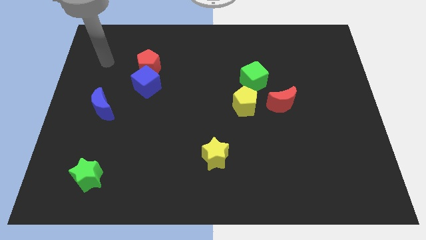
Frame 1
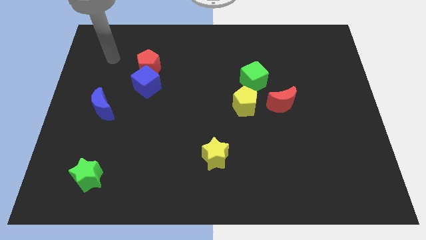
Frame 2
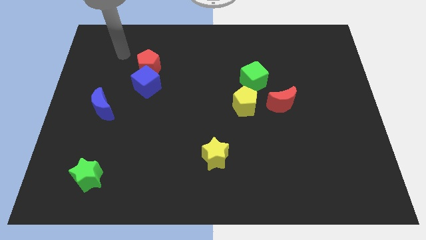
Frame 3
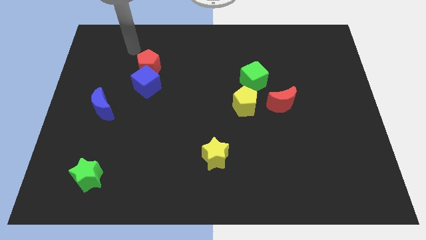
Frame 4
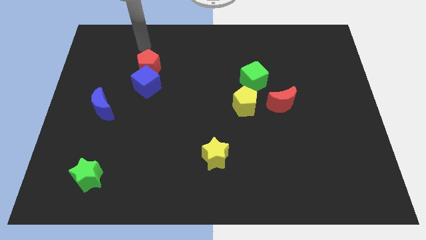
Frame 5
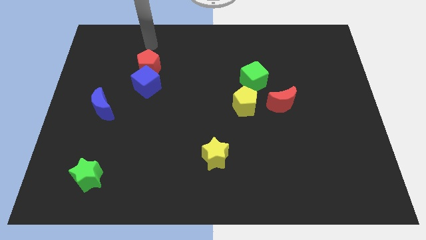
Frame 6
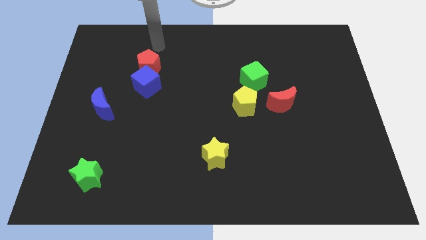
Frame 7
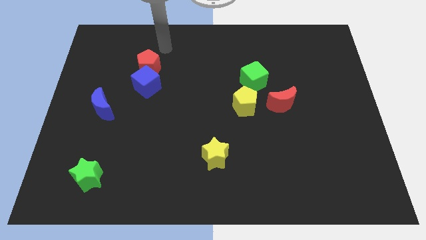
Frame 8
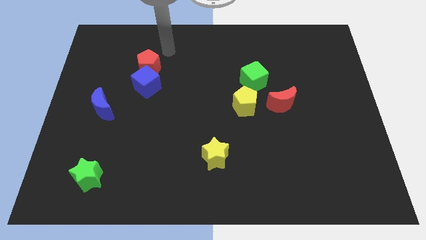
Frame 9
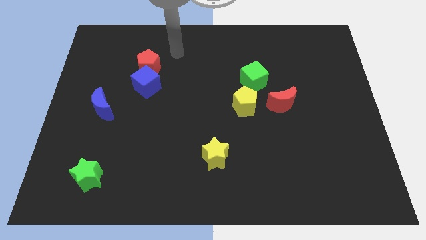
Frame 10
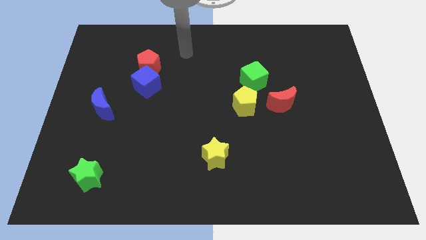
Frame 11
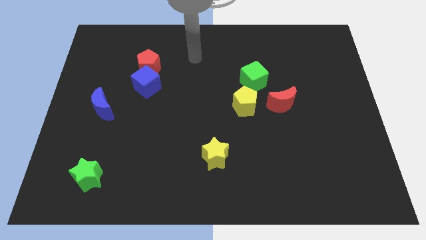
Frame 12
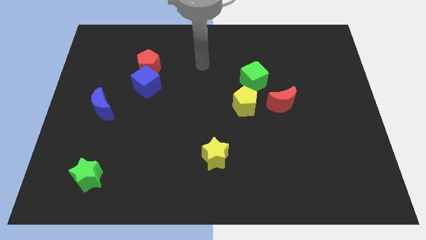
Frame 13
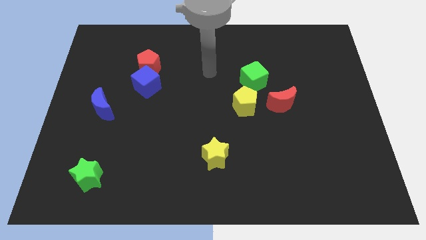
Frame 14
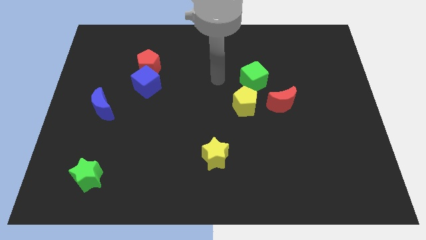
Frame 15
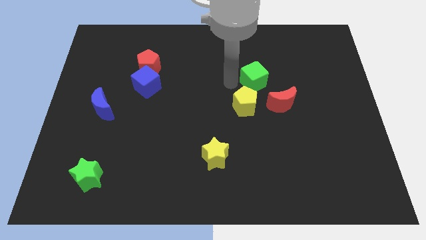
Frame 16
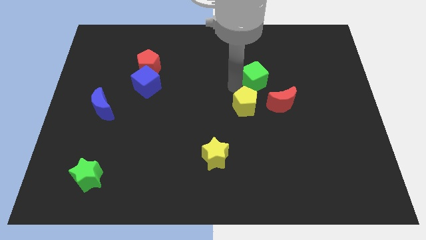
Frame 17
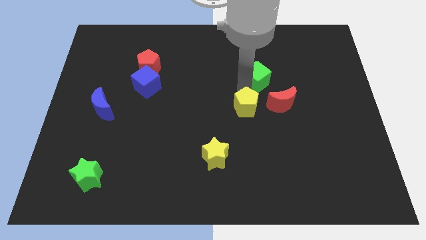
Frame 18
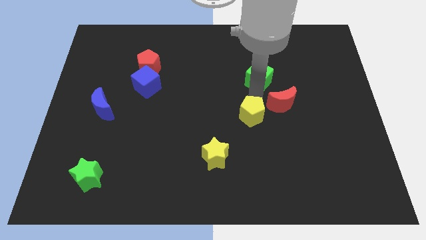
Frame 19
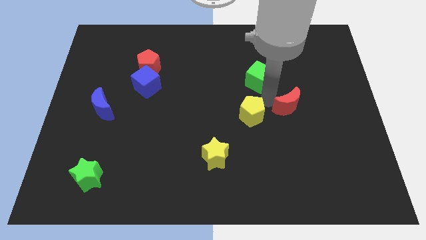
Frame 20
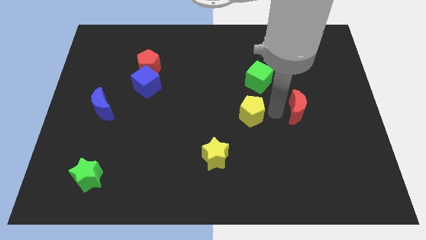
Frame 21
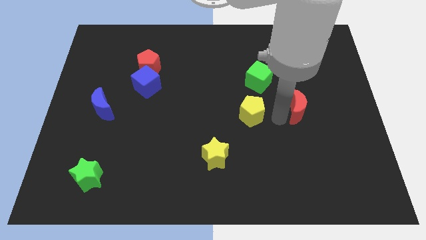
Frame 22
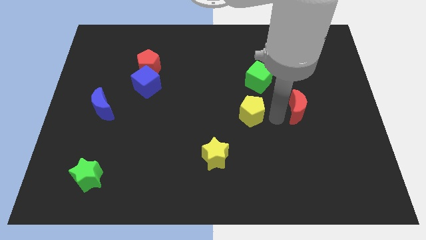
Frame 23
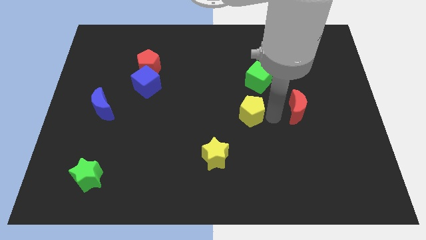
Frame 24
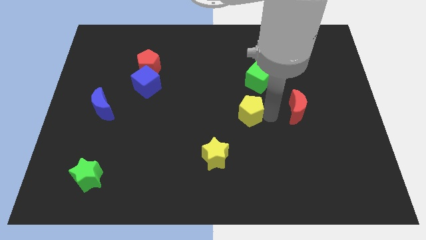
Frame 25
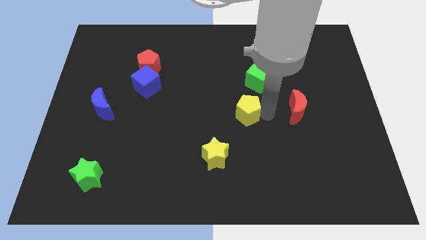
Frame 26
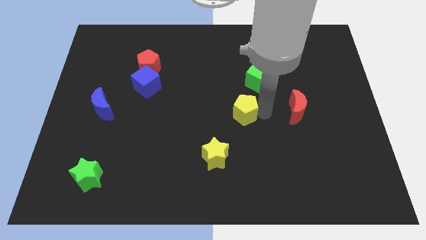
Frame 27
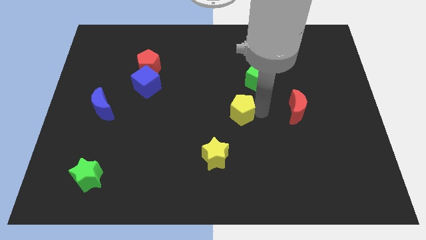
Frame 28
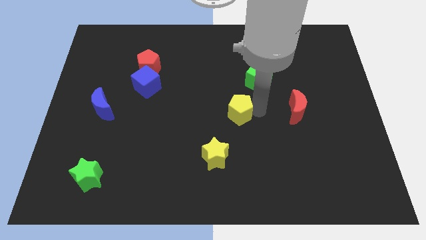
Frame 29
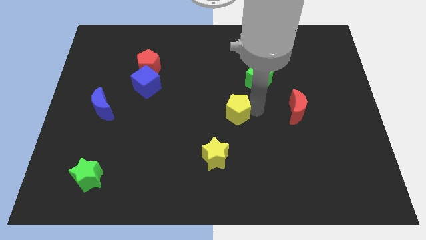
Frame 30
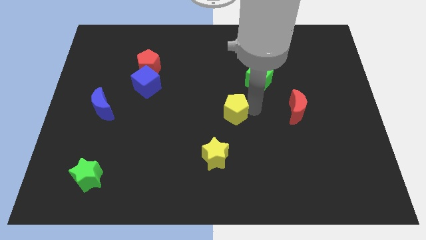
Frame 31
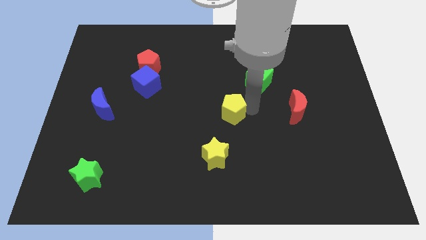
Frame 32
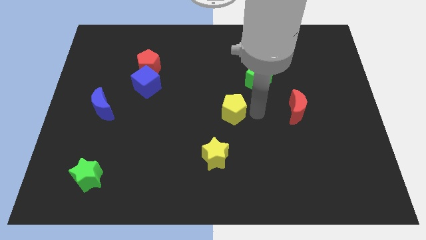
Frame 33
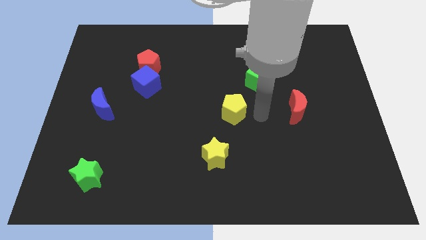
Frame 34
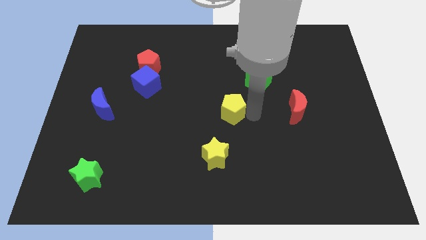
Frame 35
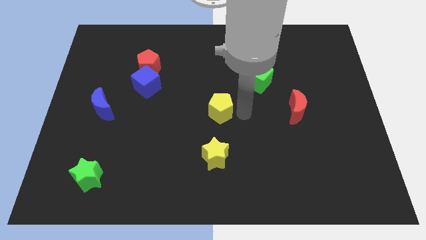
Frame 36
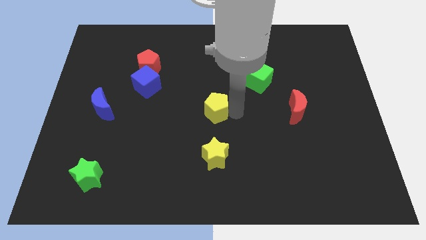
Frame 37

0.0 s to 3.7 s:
move the yellow pentagon left a little bit

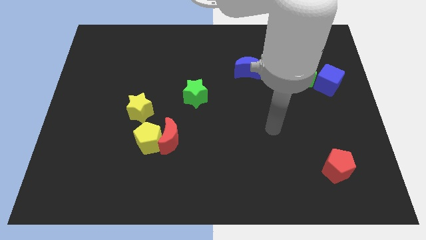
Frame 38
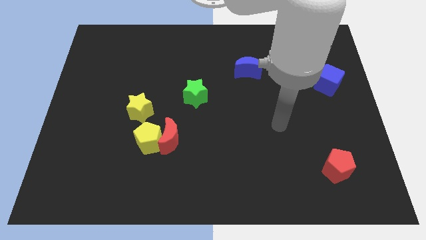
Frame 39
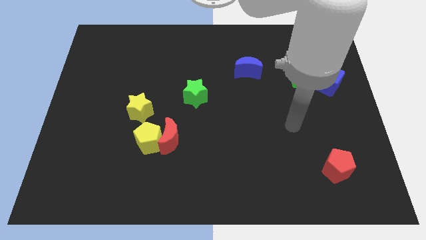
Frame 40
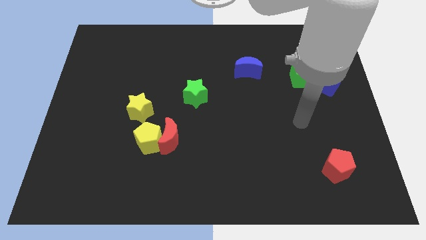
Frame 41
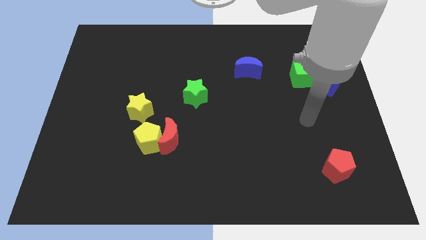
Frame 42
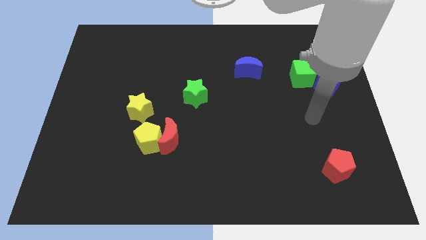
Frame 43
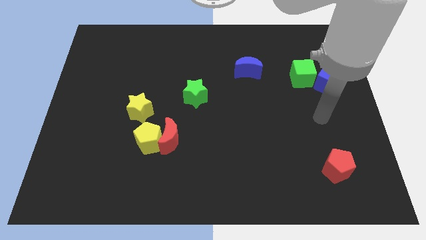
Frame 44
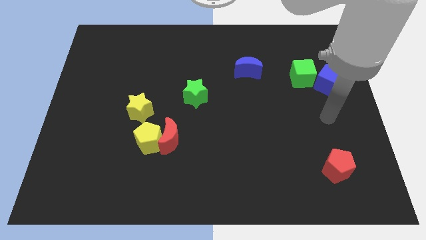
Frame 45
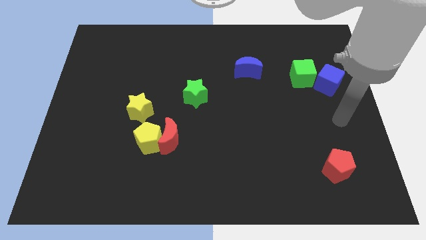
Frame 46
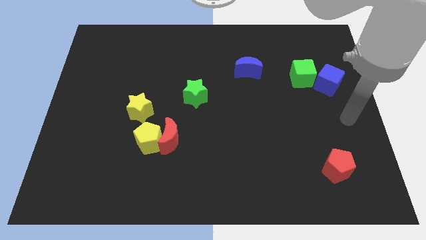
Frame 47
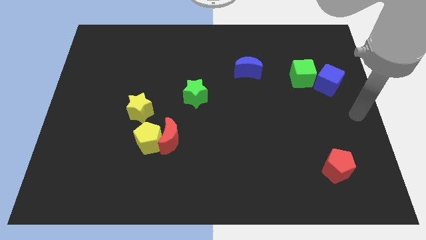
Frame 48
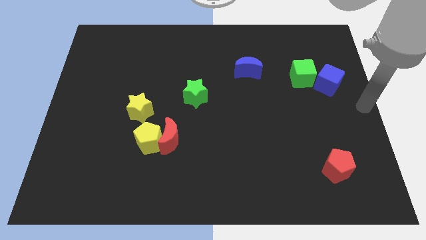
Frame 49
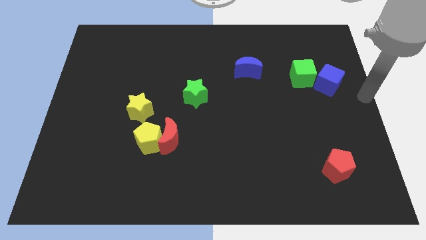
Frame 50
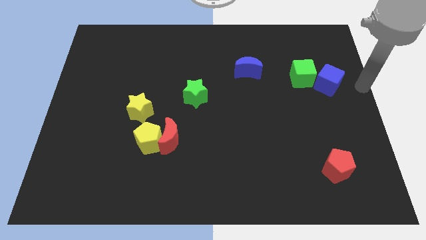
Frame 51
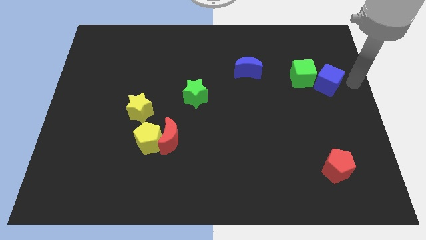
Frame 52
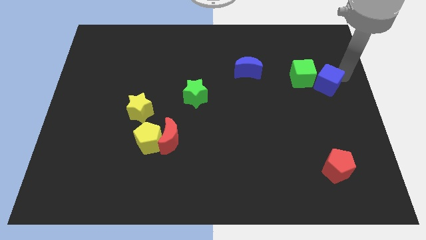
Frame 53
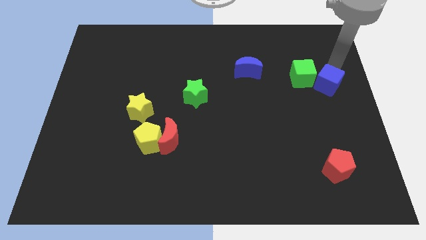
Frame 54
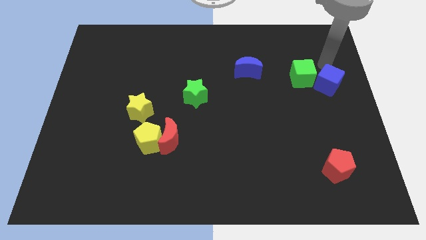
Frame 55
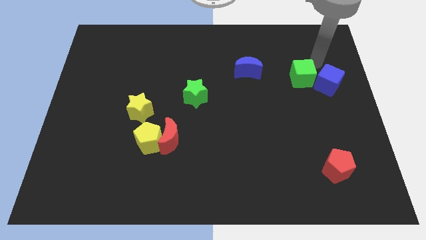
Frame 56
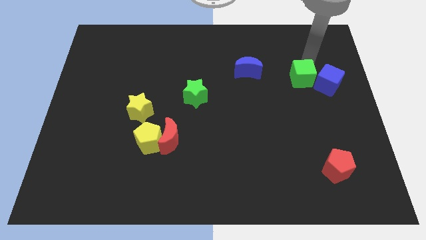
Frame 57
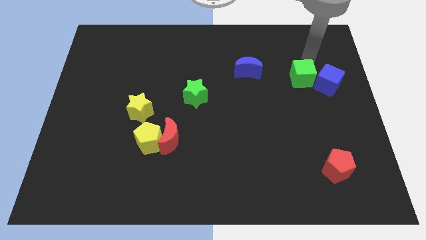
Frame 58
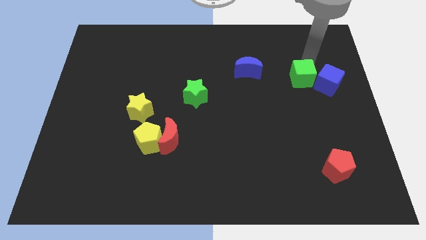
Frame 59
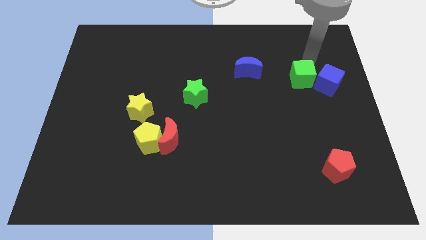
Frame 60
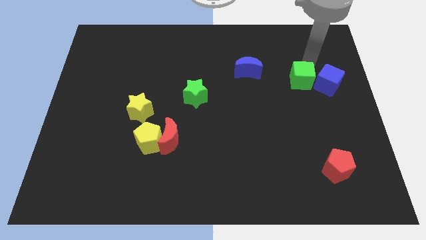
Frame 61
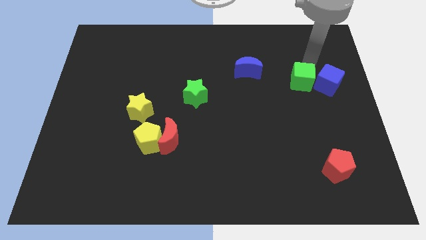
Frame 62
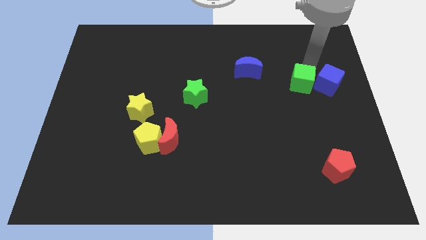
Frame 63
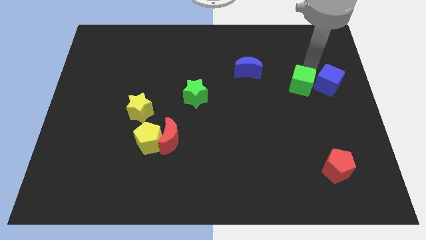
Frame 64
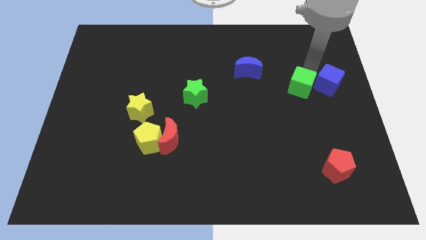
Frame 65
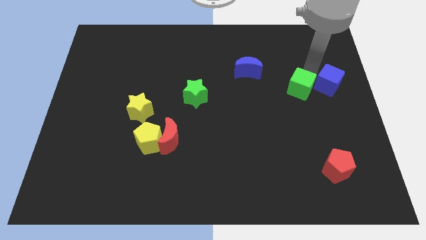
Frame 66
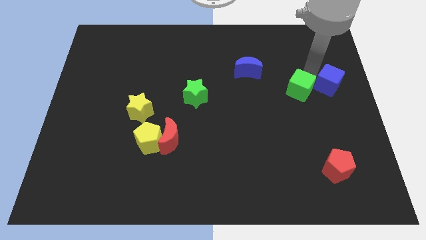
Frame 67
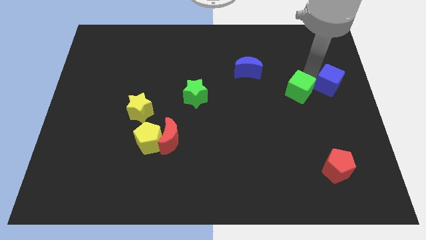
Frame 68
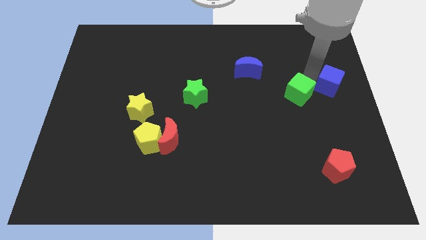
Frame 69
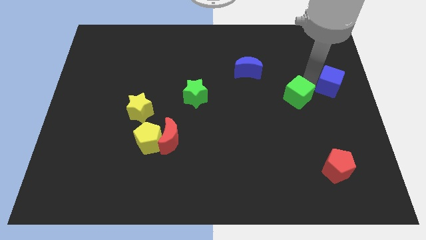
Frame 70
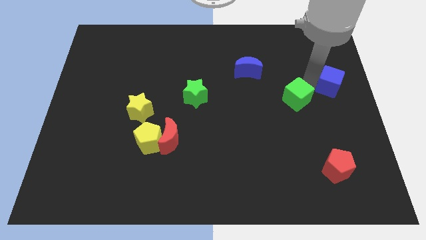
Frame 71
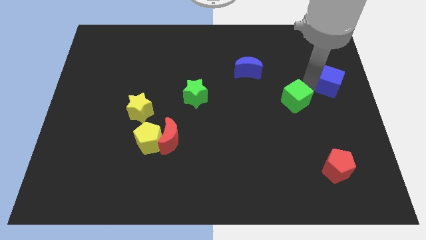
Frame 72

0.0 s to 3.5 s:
push the green cube a little diagonally downwards and left

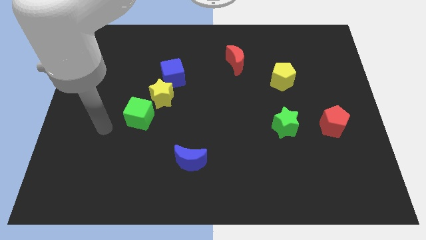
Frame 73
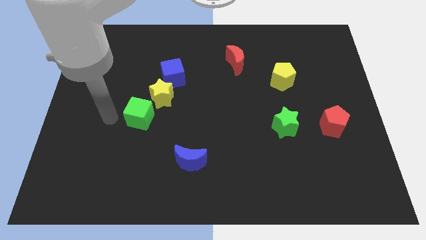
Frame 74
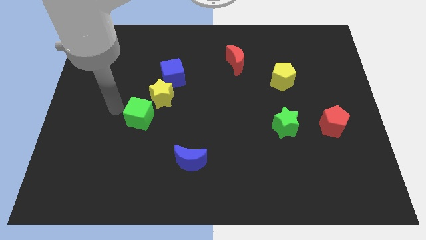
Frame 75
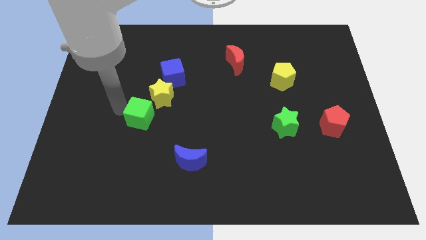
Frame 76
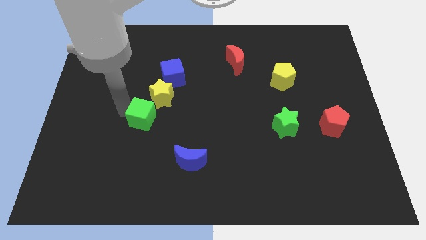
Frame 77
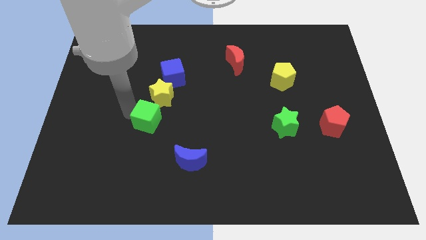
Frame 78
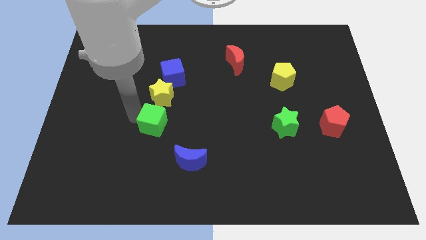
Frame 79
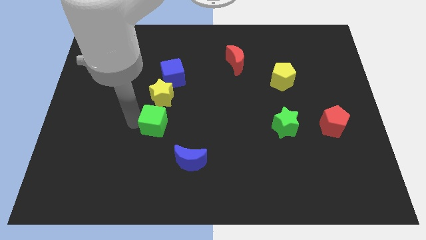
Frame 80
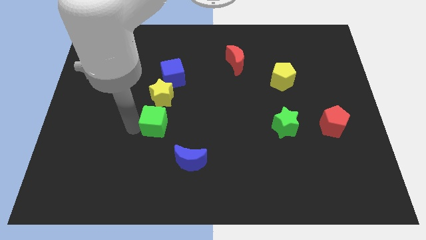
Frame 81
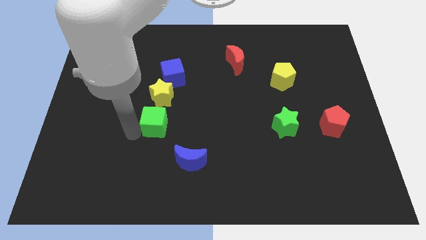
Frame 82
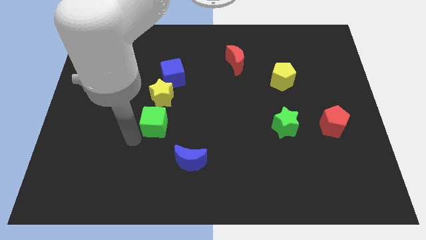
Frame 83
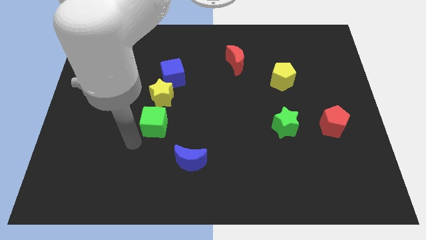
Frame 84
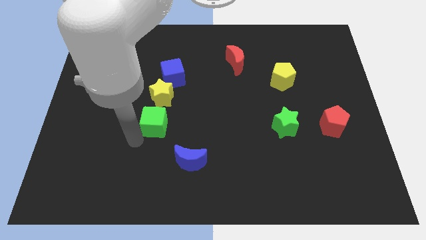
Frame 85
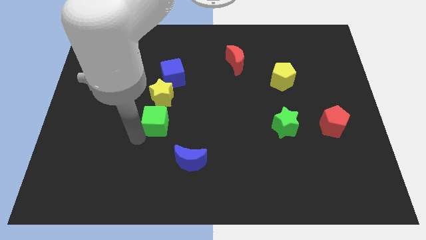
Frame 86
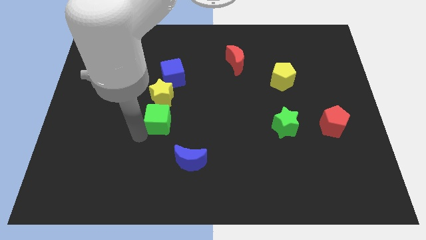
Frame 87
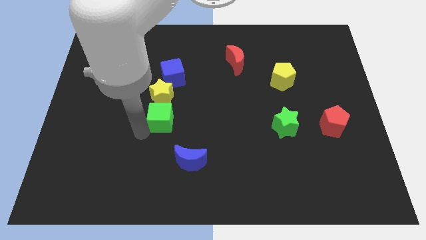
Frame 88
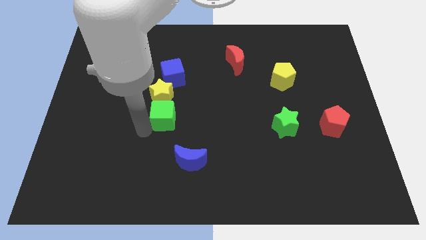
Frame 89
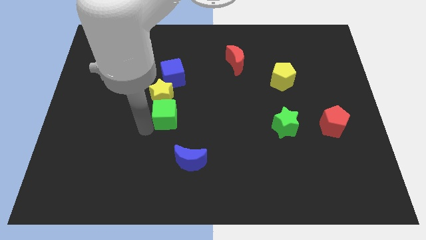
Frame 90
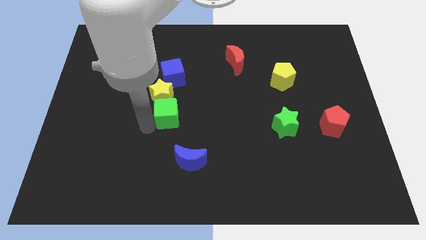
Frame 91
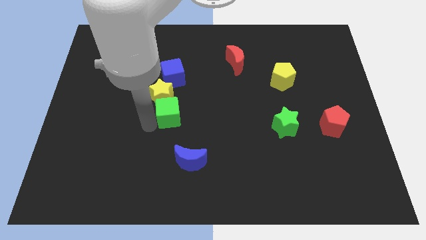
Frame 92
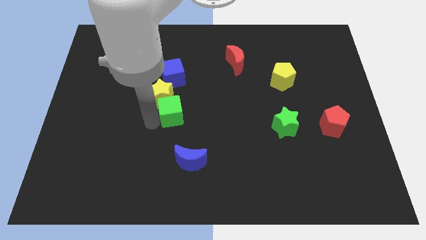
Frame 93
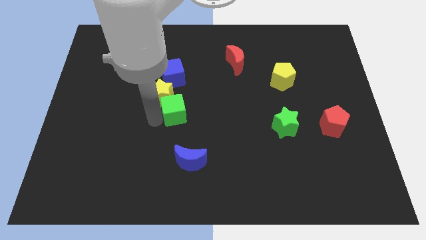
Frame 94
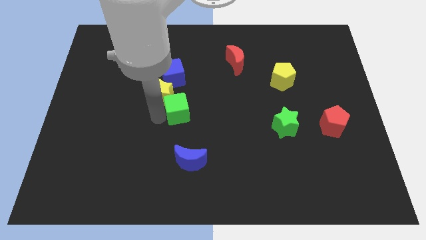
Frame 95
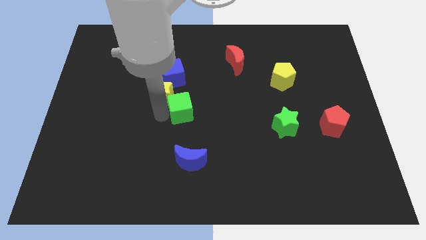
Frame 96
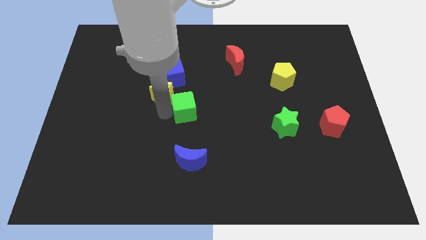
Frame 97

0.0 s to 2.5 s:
slide the green cube a bit up and then right
